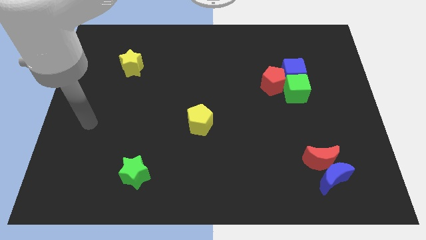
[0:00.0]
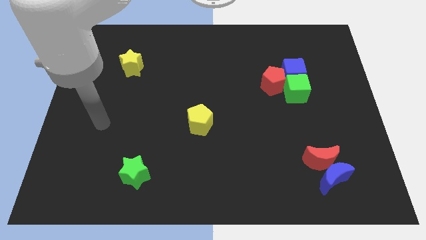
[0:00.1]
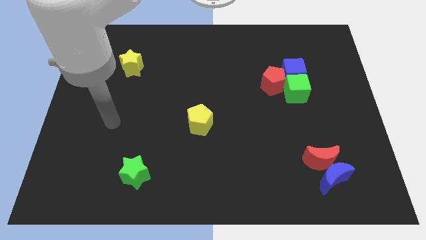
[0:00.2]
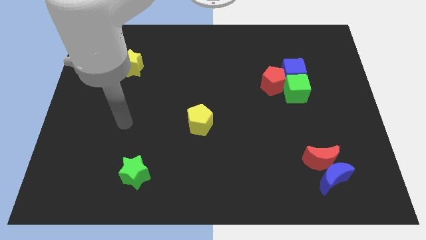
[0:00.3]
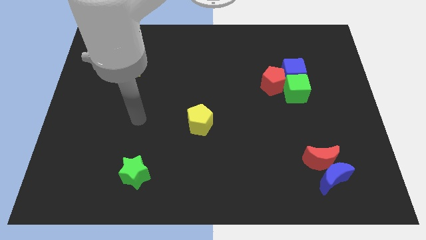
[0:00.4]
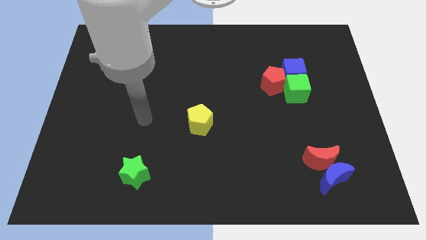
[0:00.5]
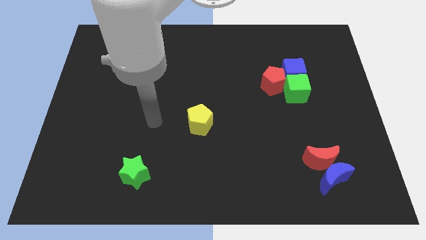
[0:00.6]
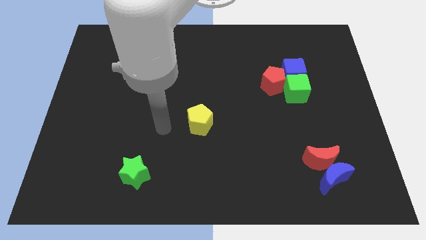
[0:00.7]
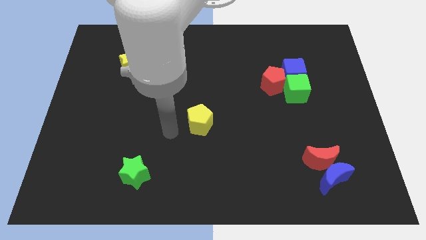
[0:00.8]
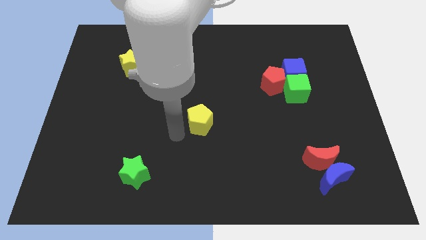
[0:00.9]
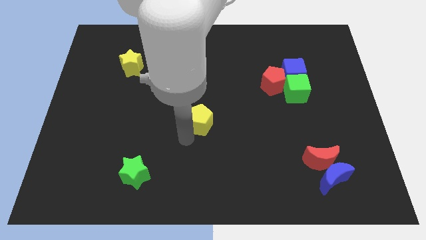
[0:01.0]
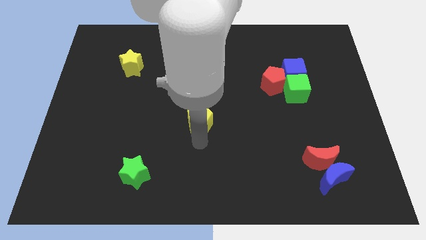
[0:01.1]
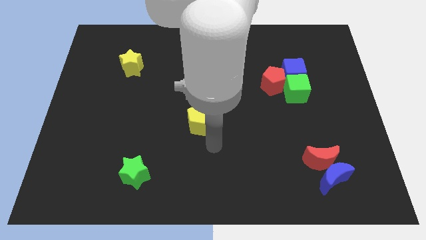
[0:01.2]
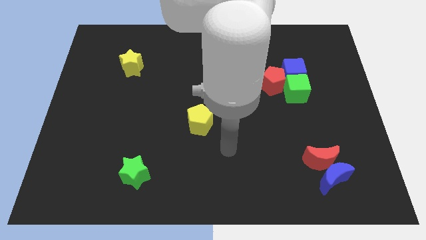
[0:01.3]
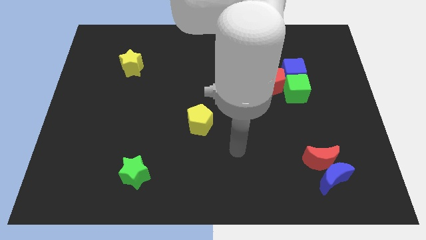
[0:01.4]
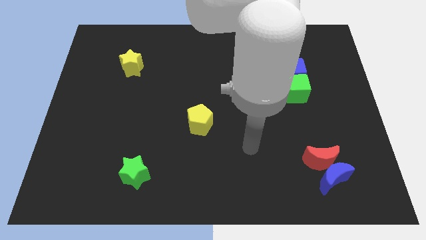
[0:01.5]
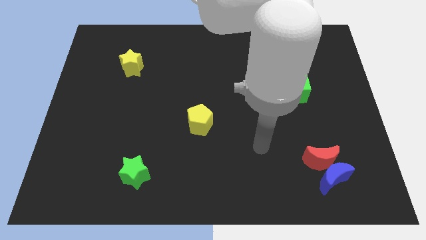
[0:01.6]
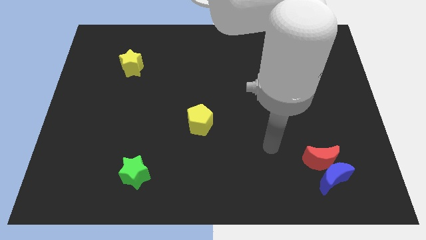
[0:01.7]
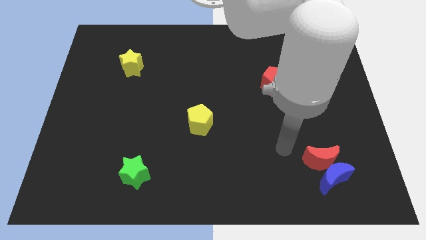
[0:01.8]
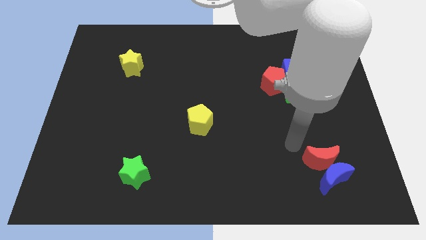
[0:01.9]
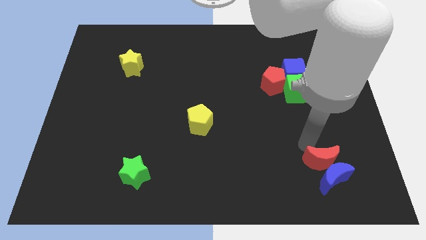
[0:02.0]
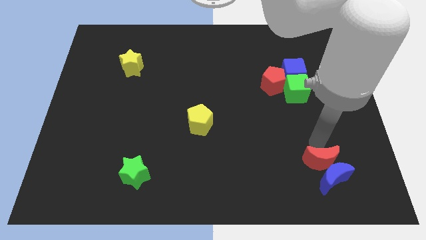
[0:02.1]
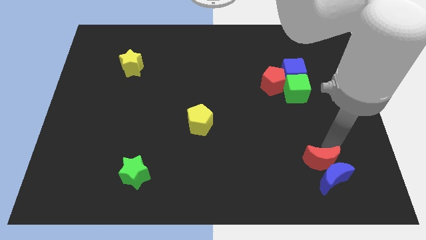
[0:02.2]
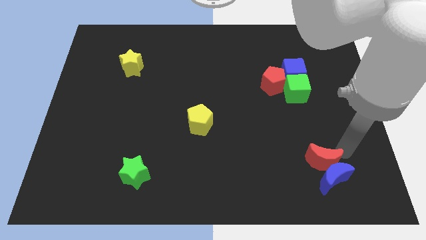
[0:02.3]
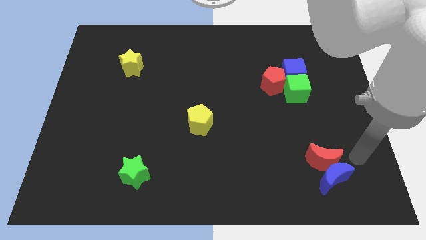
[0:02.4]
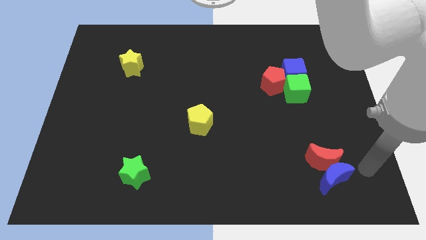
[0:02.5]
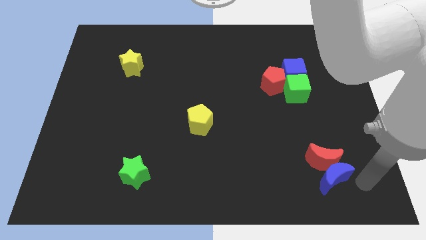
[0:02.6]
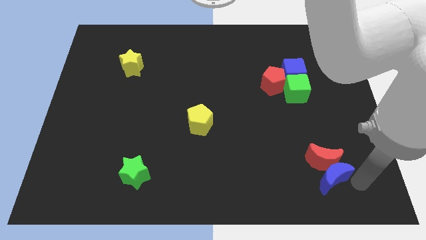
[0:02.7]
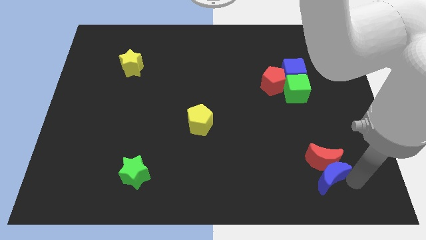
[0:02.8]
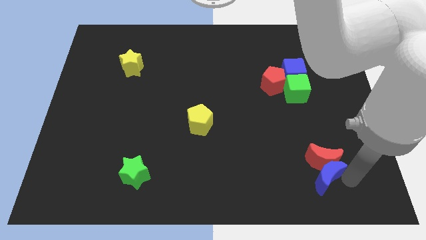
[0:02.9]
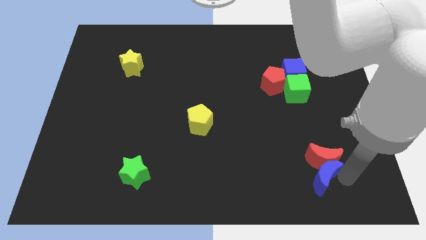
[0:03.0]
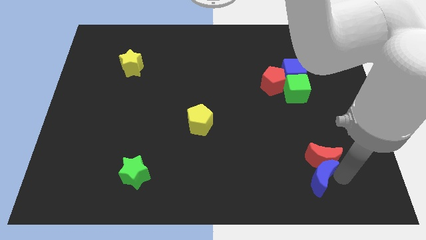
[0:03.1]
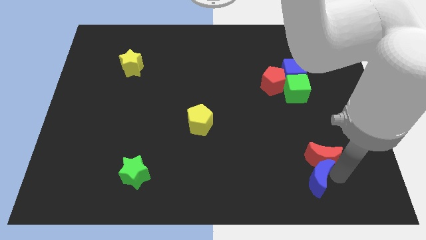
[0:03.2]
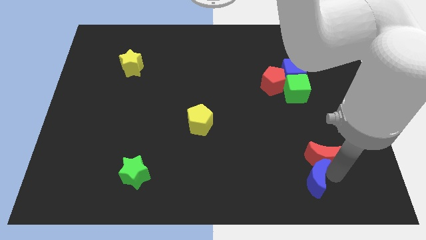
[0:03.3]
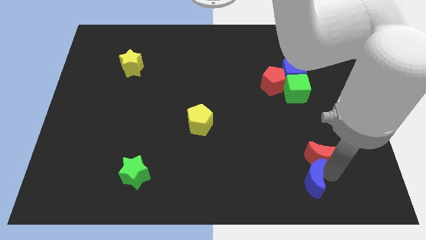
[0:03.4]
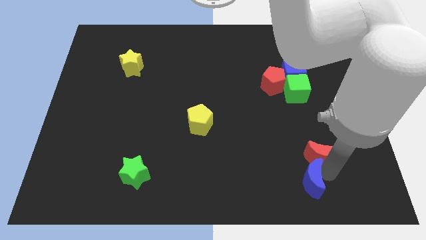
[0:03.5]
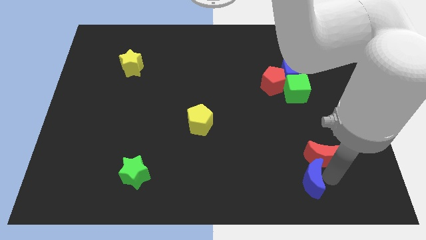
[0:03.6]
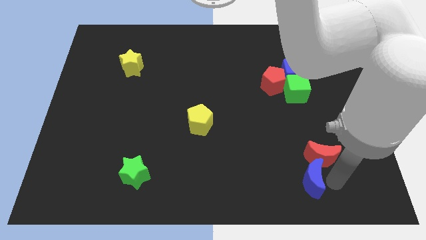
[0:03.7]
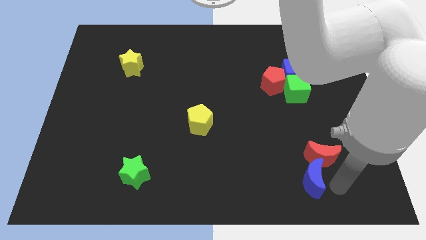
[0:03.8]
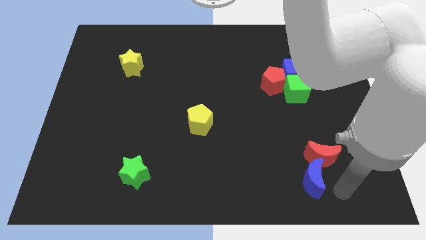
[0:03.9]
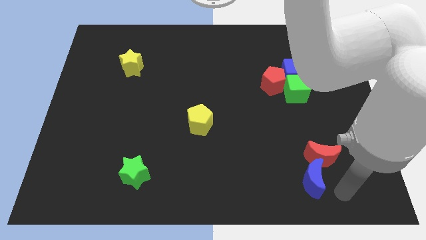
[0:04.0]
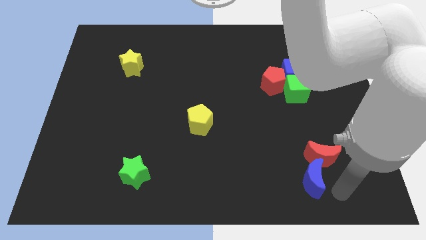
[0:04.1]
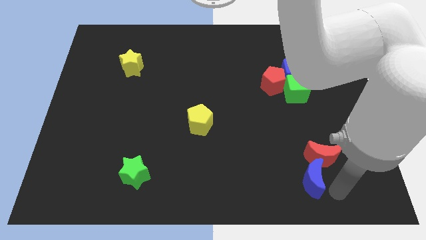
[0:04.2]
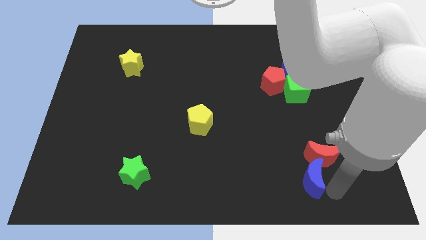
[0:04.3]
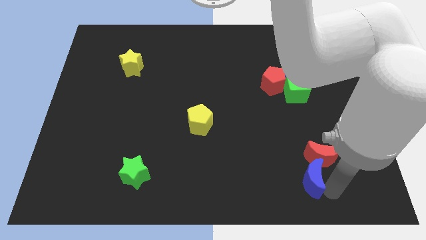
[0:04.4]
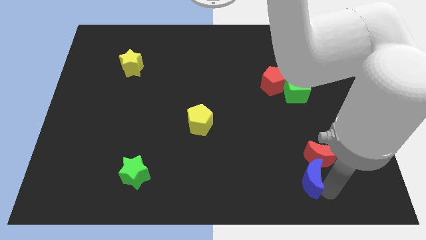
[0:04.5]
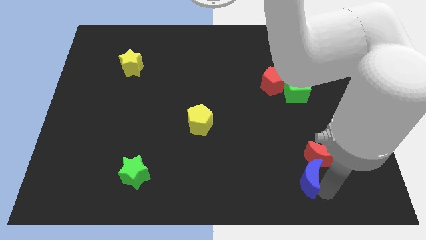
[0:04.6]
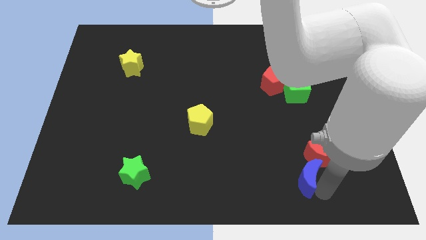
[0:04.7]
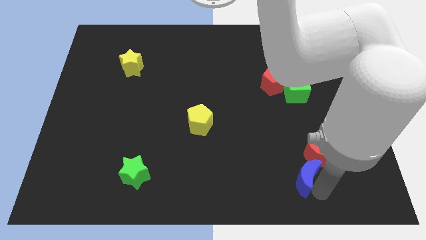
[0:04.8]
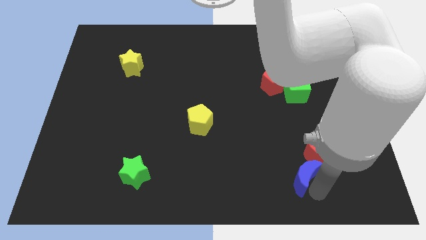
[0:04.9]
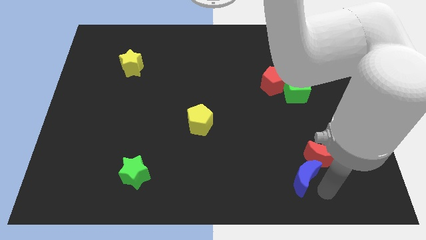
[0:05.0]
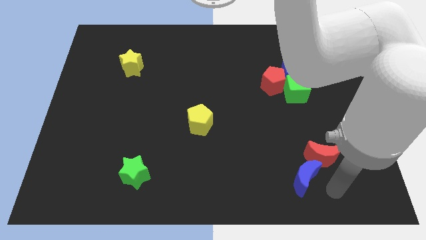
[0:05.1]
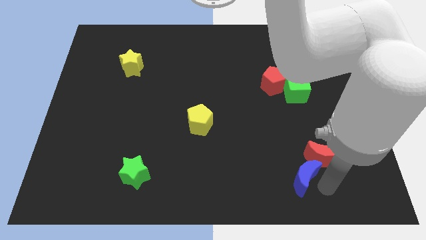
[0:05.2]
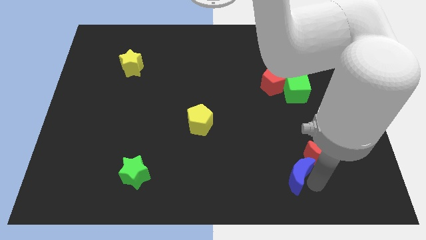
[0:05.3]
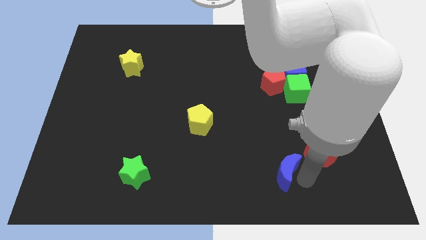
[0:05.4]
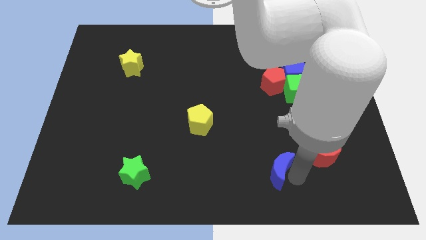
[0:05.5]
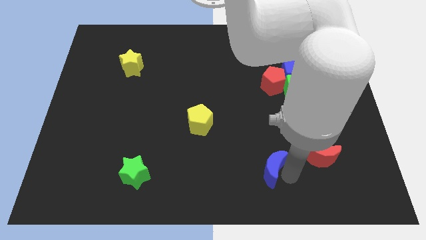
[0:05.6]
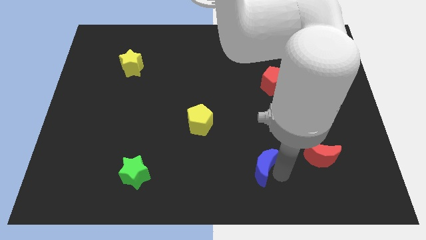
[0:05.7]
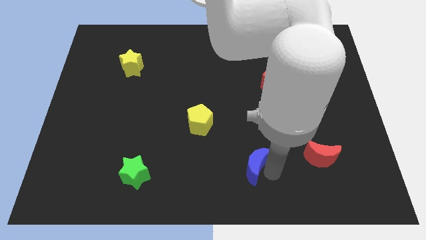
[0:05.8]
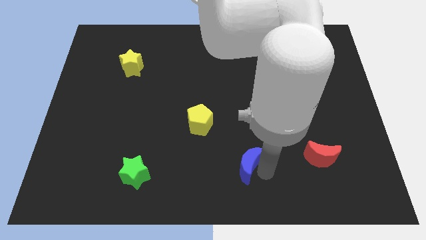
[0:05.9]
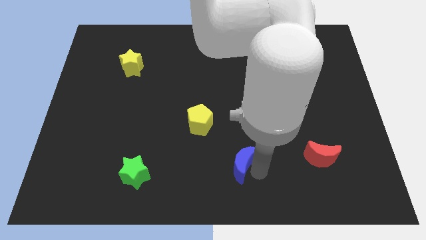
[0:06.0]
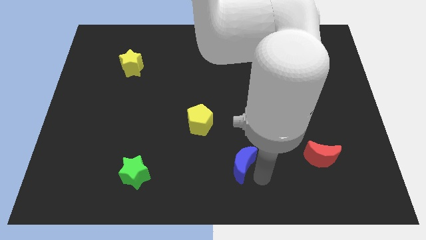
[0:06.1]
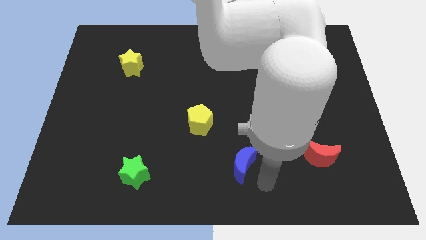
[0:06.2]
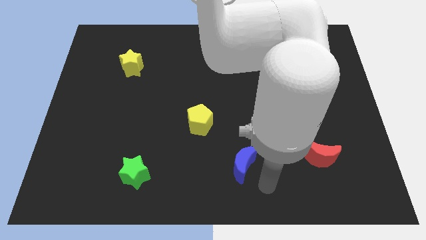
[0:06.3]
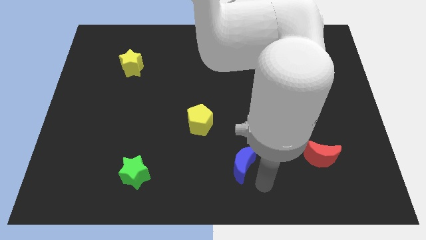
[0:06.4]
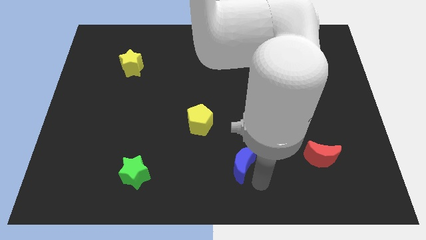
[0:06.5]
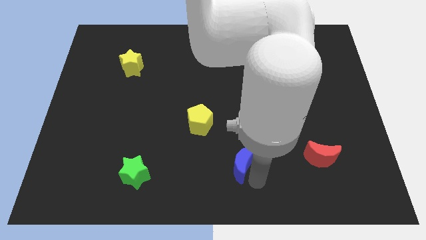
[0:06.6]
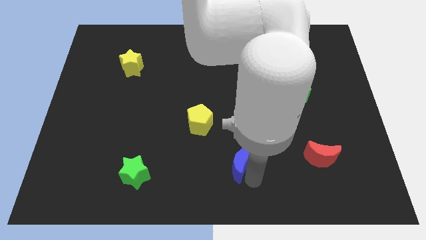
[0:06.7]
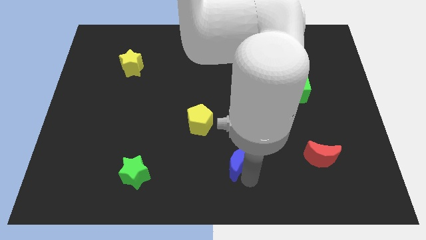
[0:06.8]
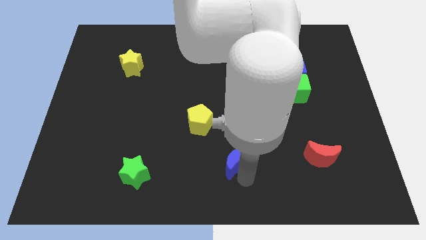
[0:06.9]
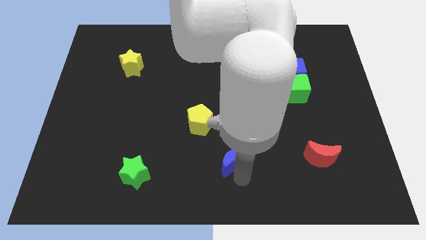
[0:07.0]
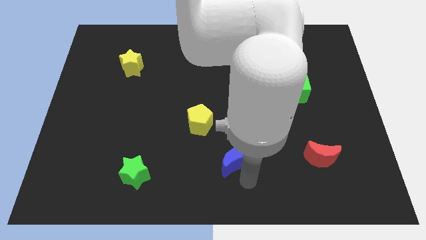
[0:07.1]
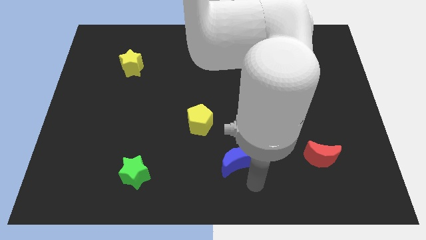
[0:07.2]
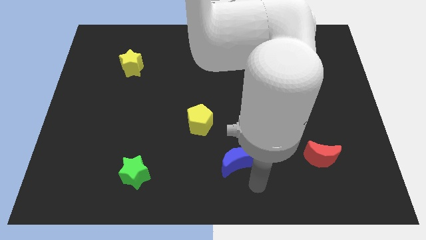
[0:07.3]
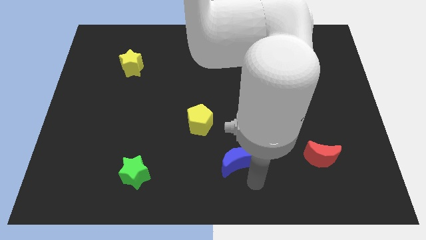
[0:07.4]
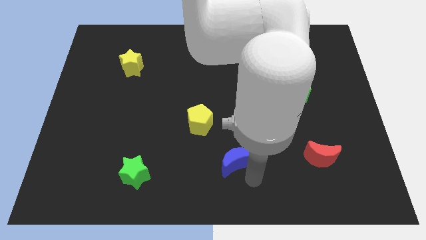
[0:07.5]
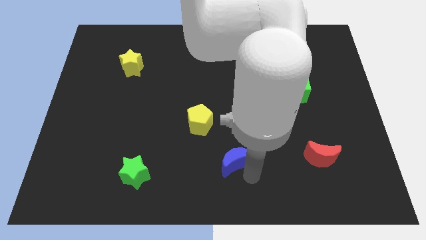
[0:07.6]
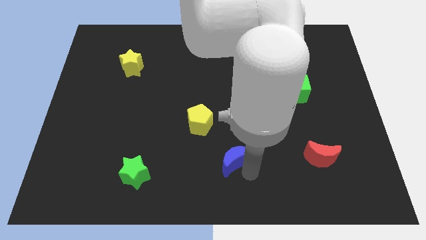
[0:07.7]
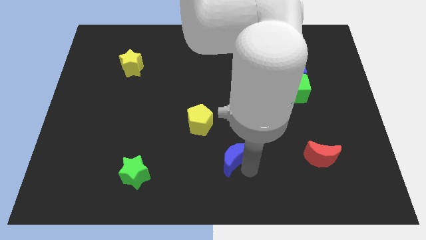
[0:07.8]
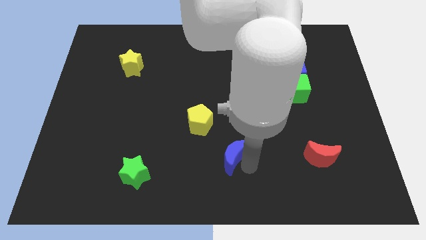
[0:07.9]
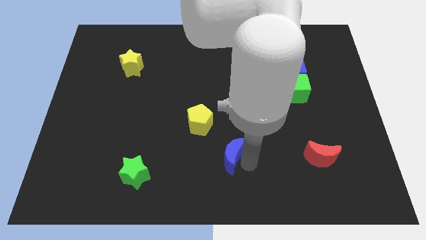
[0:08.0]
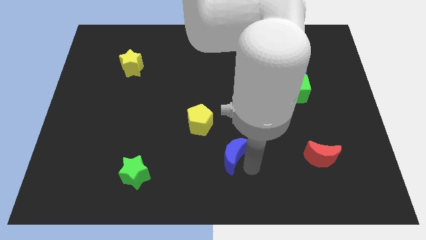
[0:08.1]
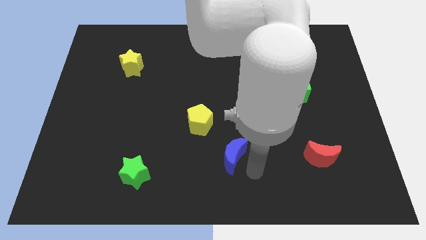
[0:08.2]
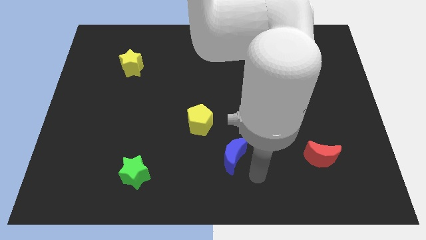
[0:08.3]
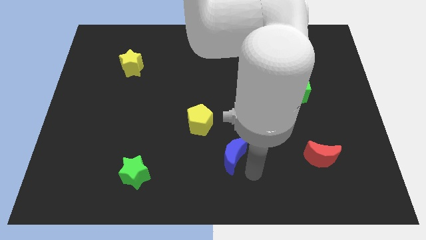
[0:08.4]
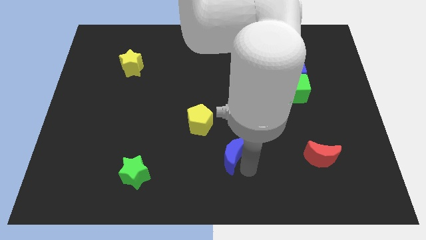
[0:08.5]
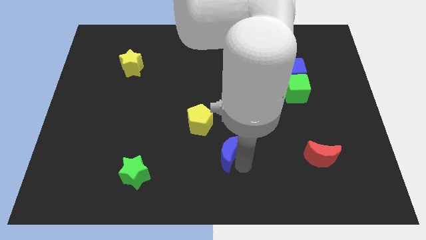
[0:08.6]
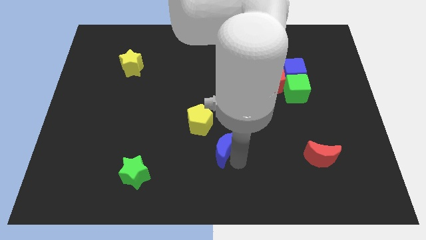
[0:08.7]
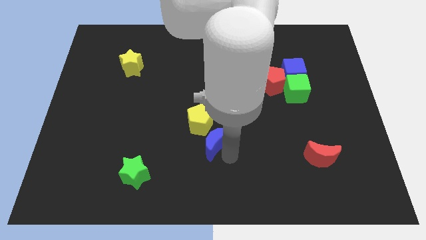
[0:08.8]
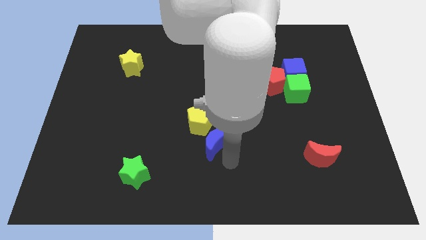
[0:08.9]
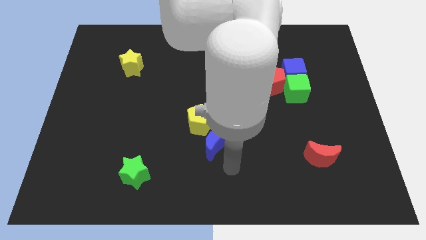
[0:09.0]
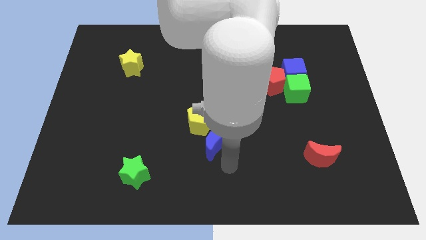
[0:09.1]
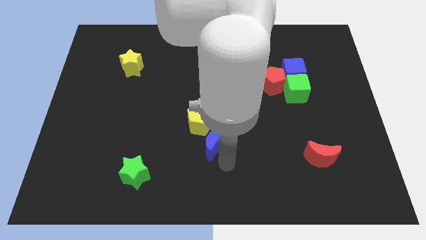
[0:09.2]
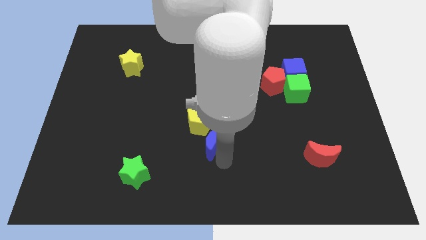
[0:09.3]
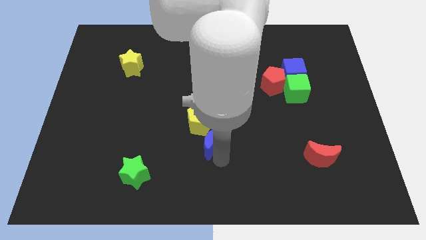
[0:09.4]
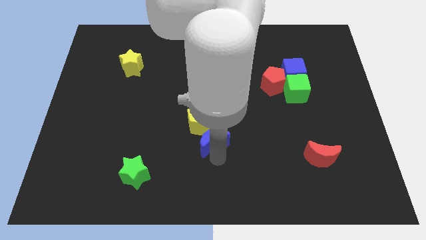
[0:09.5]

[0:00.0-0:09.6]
put the blue moon to the yellow pentagon
